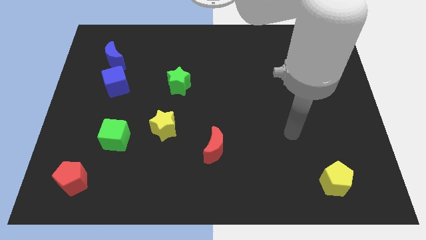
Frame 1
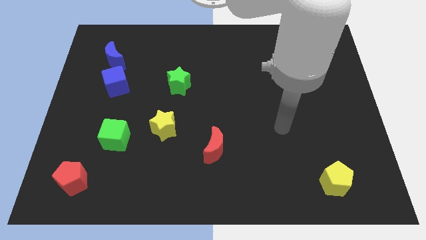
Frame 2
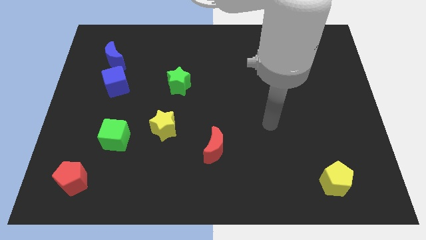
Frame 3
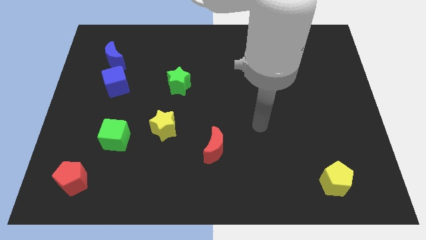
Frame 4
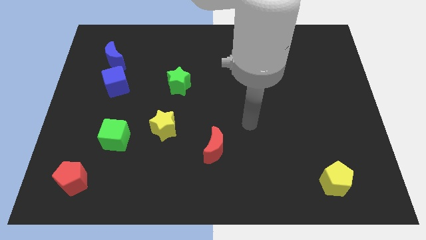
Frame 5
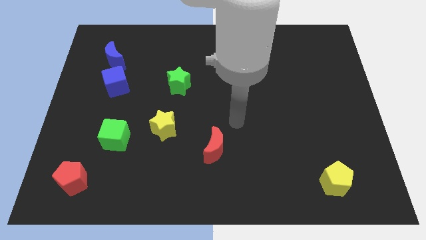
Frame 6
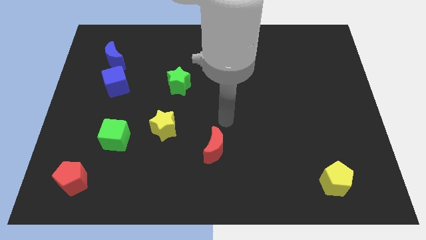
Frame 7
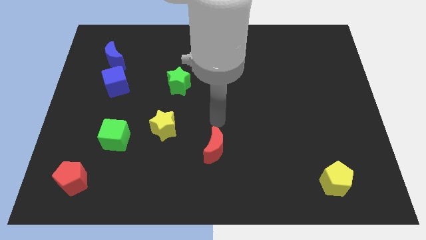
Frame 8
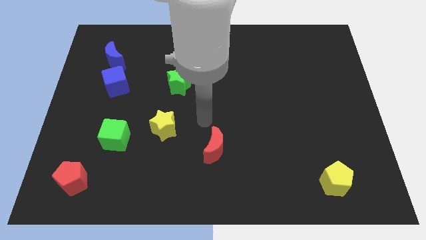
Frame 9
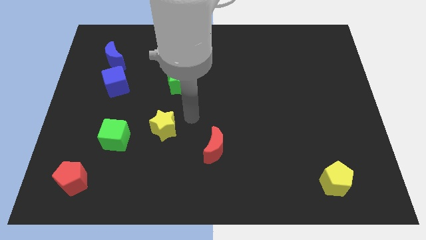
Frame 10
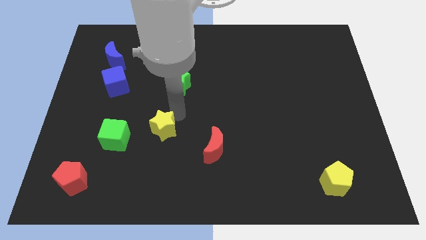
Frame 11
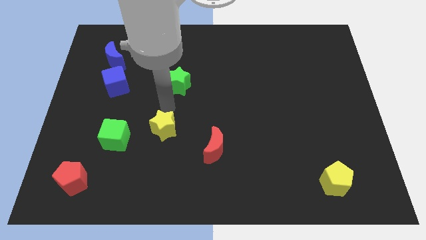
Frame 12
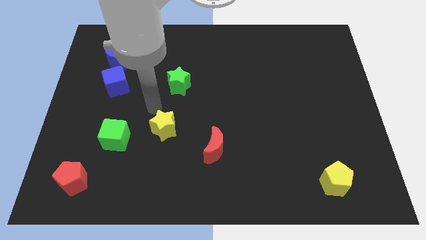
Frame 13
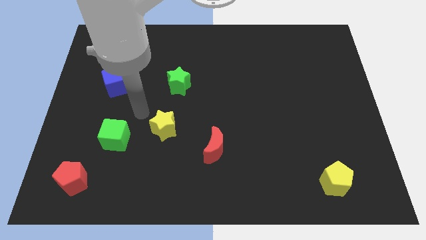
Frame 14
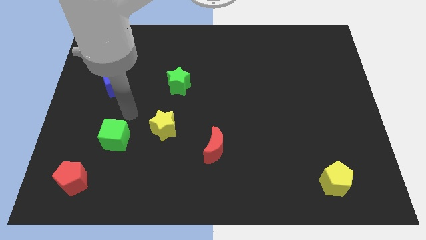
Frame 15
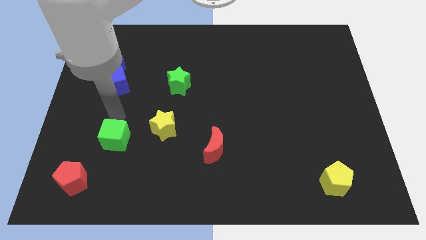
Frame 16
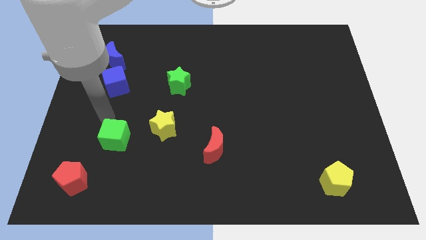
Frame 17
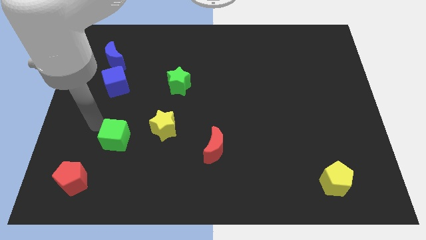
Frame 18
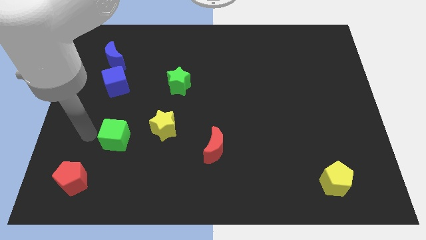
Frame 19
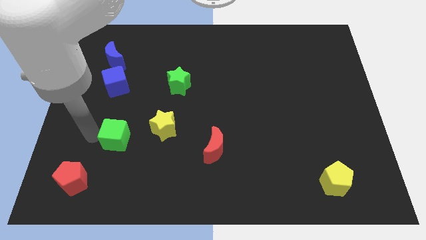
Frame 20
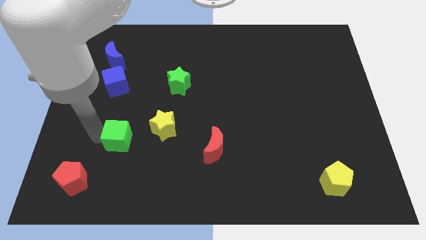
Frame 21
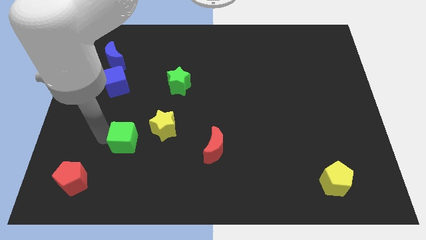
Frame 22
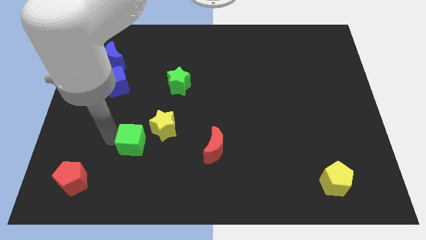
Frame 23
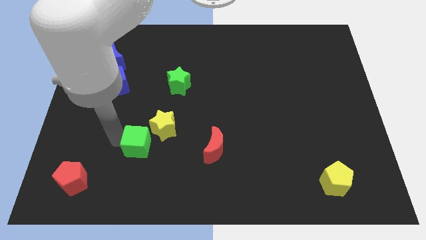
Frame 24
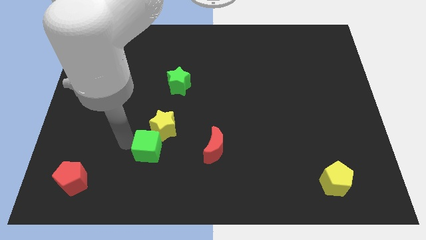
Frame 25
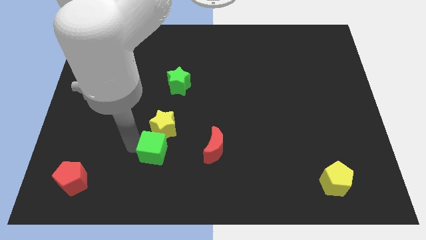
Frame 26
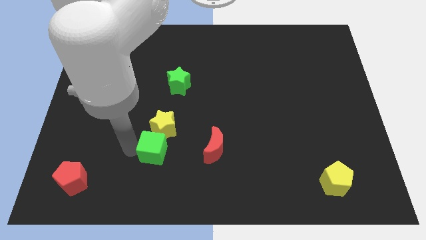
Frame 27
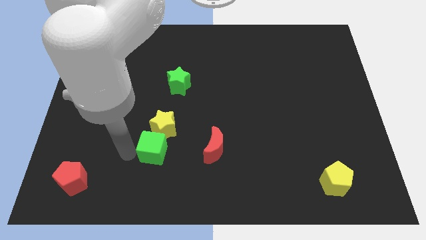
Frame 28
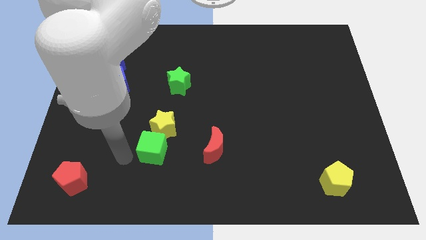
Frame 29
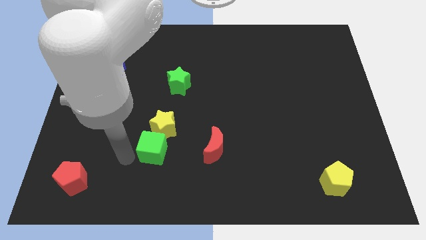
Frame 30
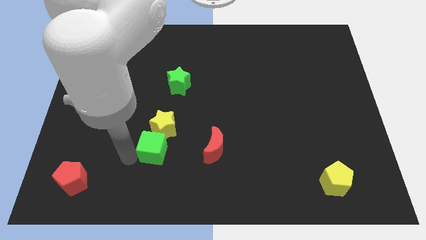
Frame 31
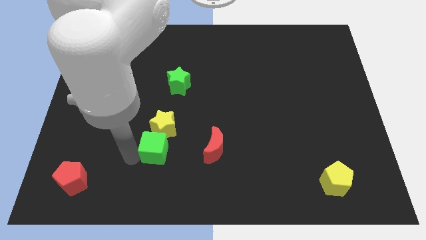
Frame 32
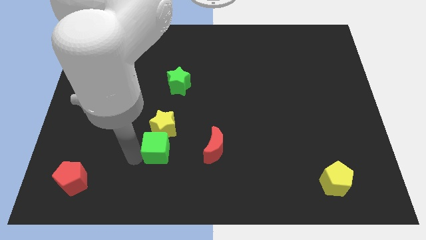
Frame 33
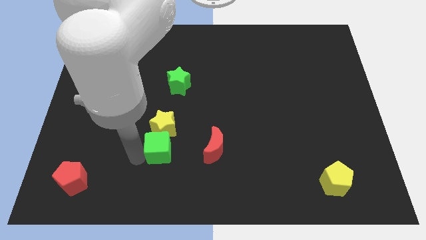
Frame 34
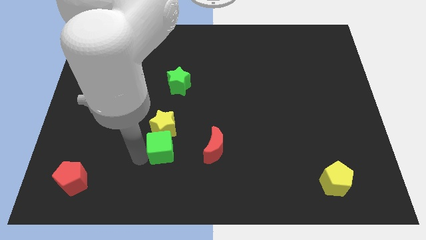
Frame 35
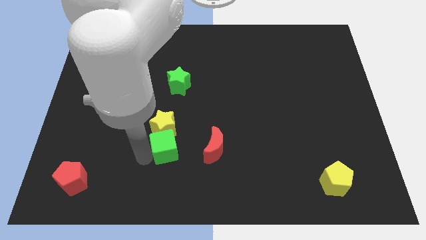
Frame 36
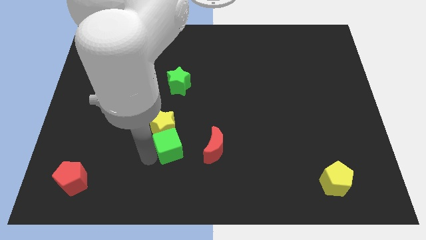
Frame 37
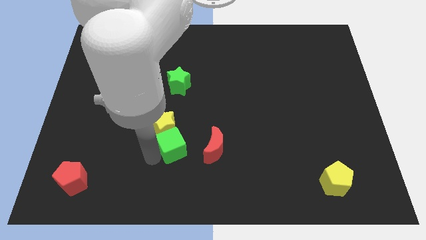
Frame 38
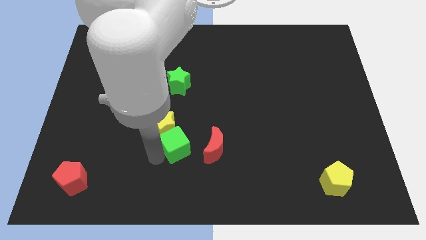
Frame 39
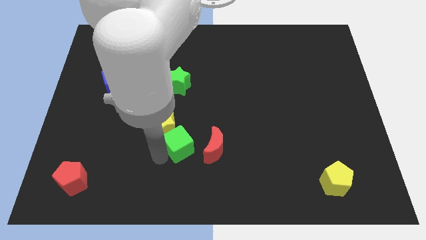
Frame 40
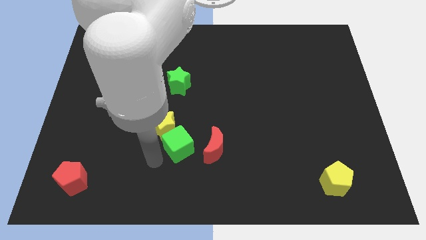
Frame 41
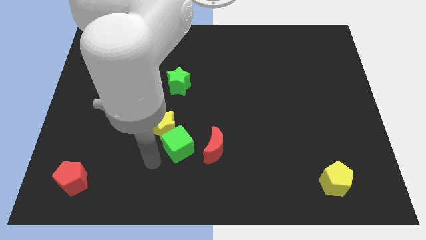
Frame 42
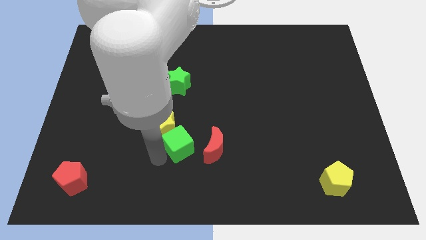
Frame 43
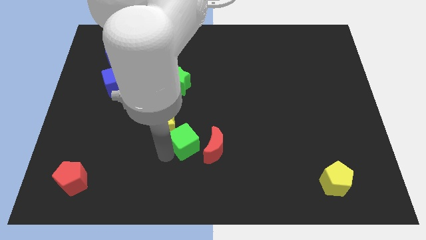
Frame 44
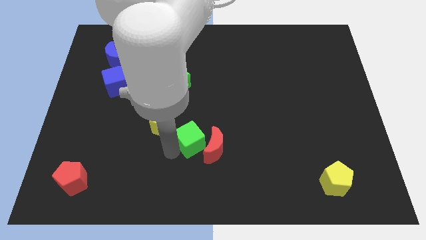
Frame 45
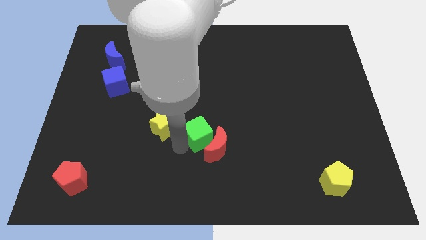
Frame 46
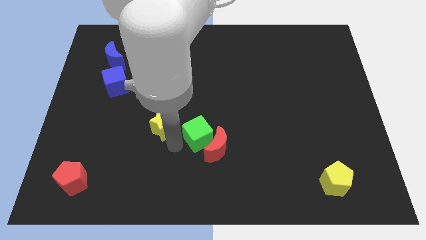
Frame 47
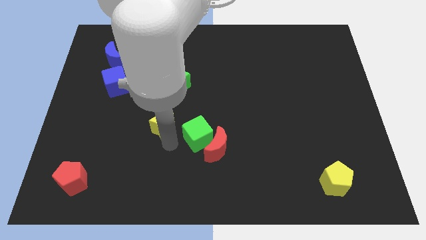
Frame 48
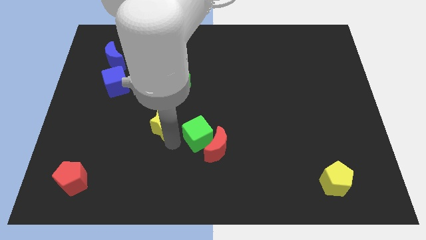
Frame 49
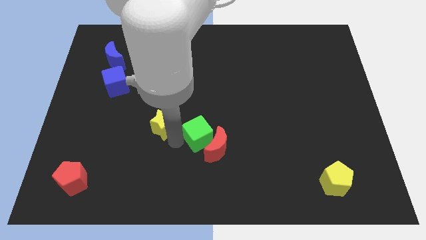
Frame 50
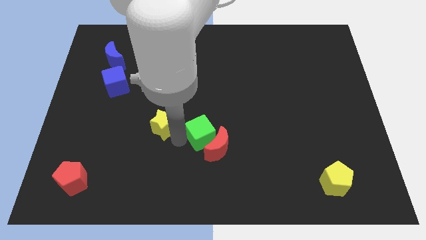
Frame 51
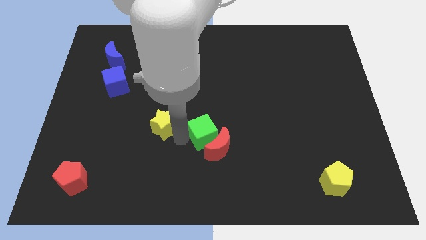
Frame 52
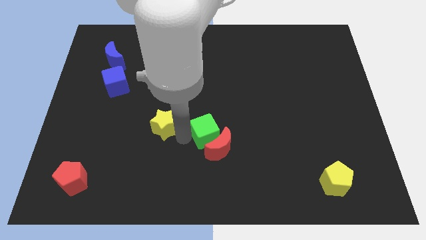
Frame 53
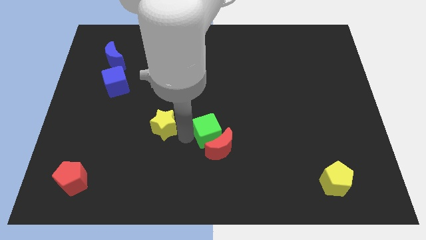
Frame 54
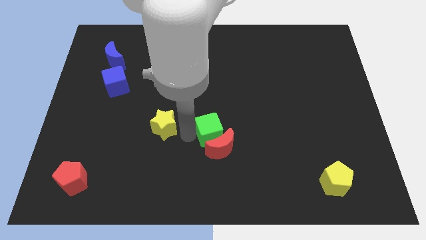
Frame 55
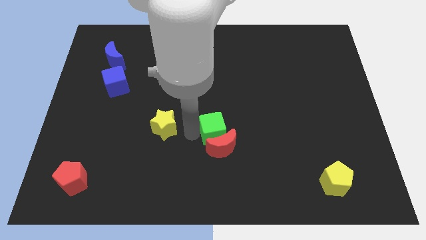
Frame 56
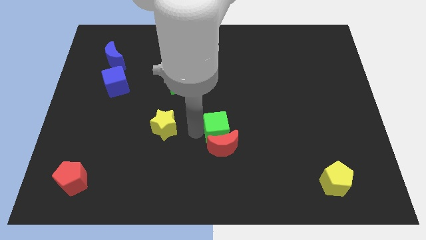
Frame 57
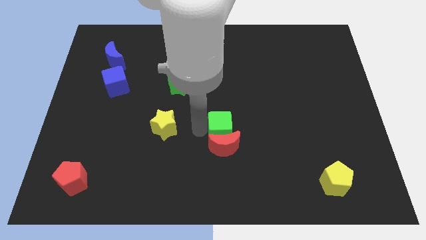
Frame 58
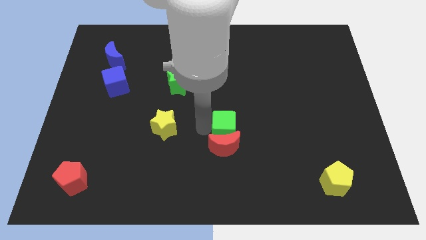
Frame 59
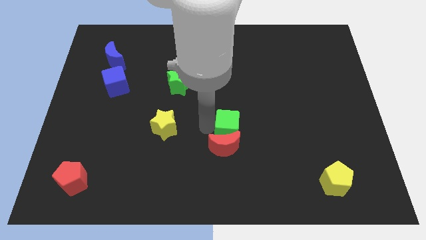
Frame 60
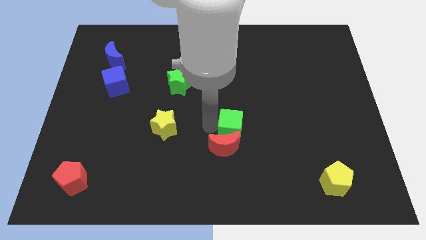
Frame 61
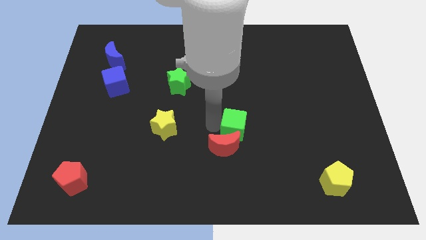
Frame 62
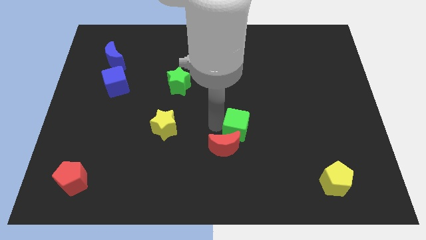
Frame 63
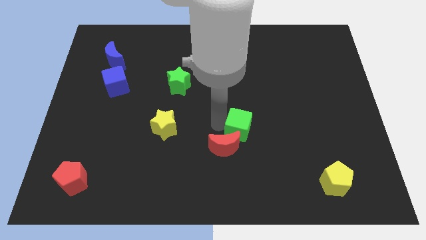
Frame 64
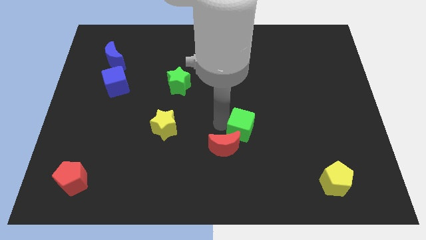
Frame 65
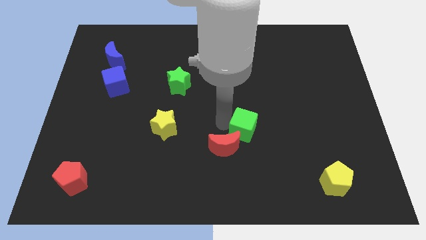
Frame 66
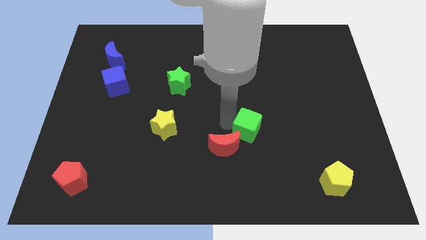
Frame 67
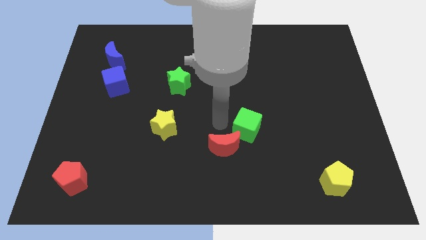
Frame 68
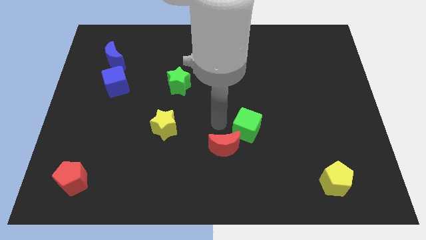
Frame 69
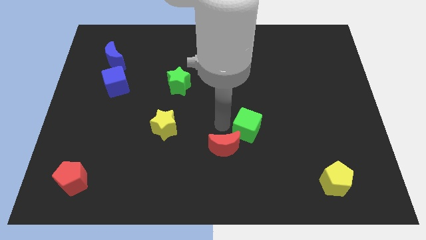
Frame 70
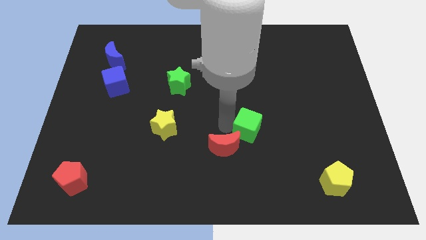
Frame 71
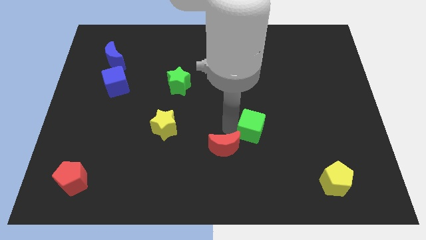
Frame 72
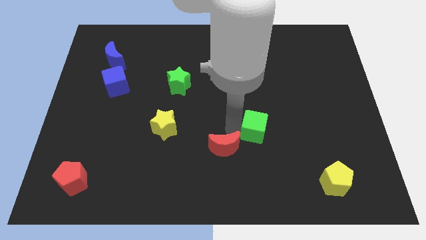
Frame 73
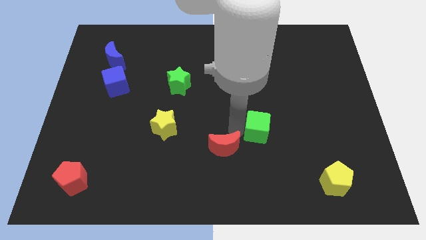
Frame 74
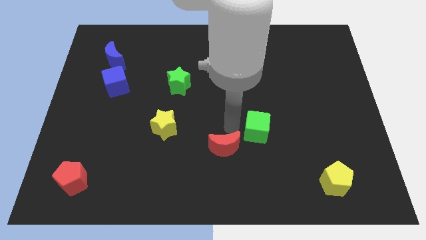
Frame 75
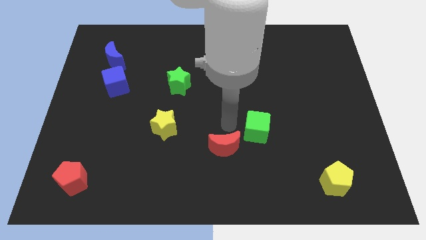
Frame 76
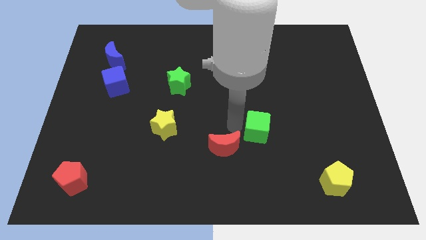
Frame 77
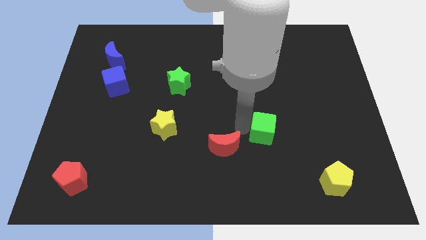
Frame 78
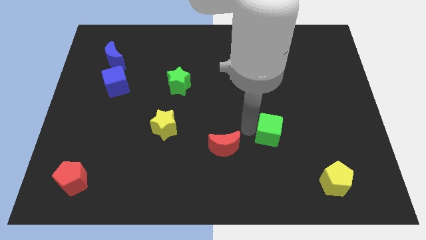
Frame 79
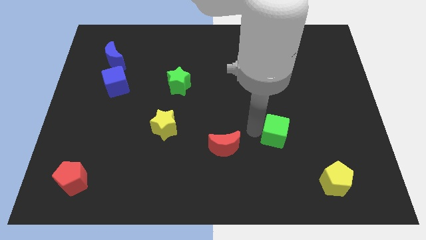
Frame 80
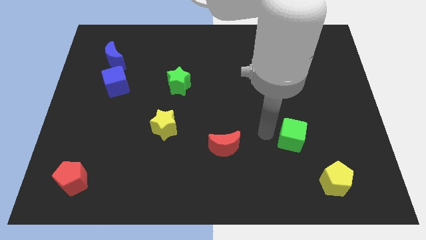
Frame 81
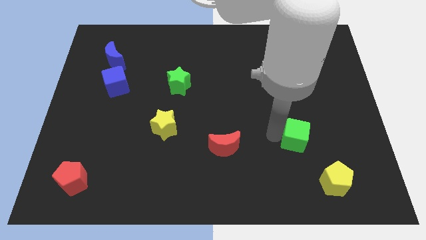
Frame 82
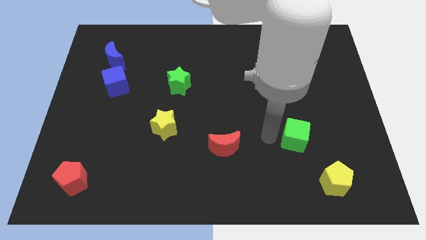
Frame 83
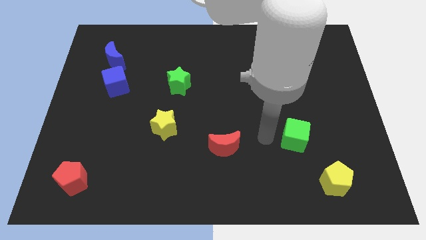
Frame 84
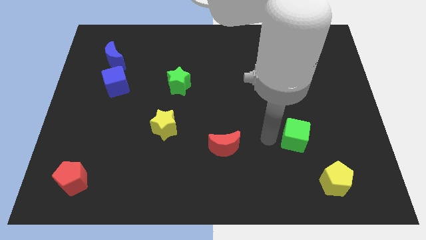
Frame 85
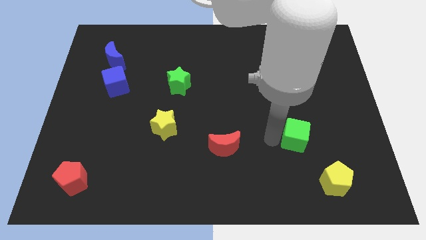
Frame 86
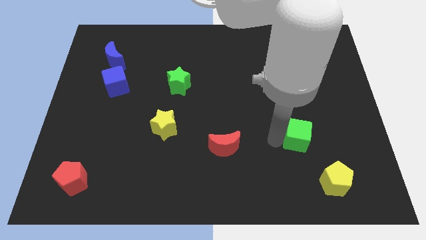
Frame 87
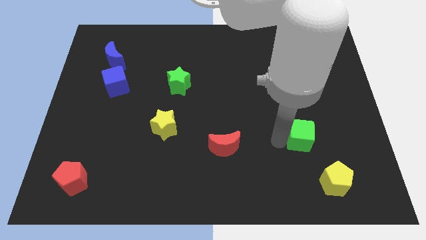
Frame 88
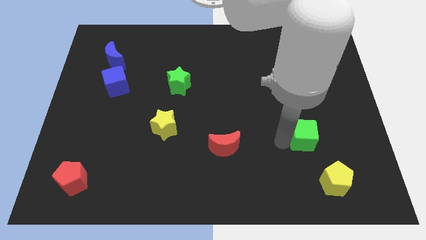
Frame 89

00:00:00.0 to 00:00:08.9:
put the green cube to the top side of the yellow pentagon
